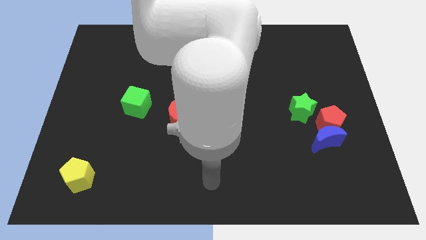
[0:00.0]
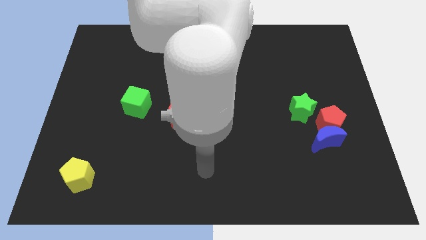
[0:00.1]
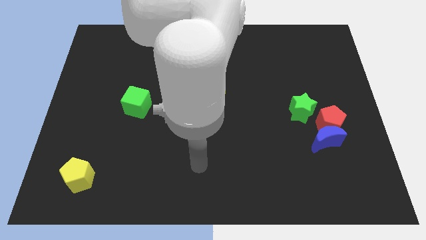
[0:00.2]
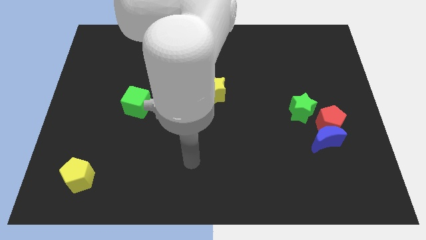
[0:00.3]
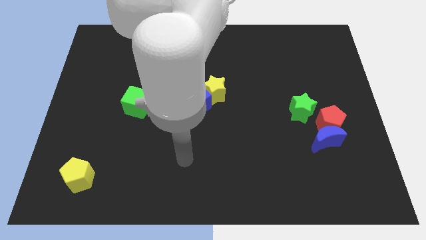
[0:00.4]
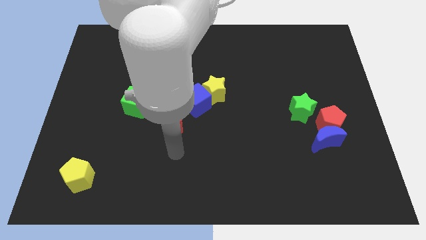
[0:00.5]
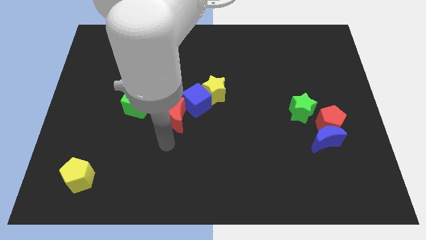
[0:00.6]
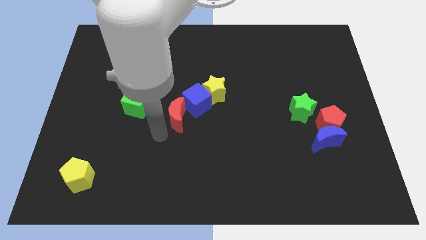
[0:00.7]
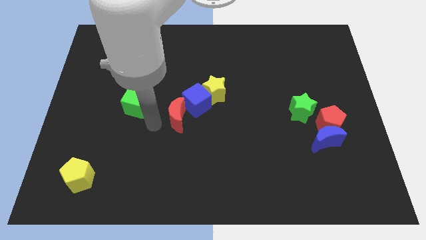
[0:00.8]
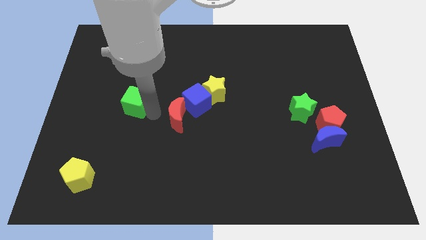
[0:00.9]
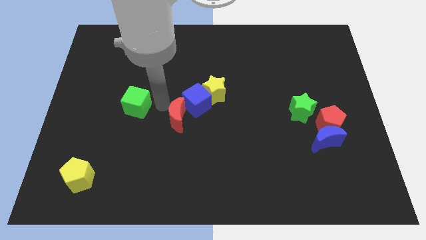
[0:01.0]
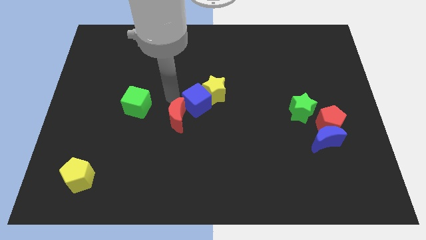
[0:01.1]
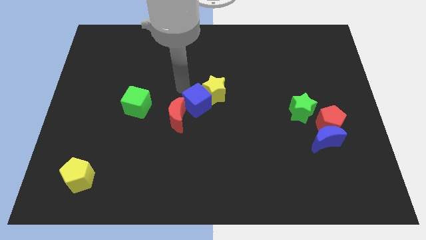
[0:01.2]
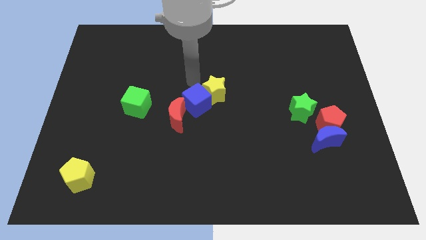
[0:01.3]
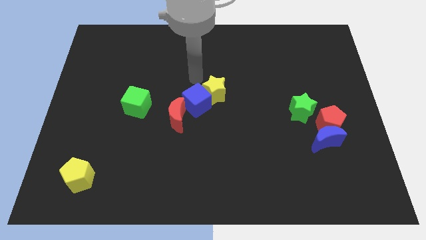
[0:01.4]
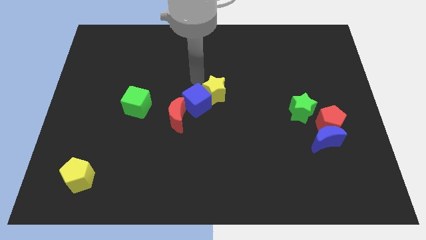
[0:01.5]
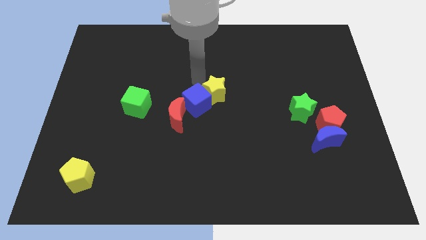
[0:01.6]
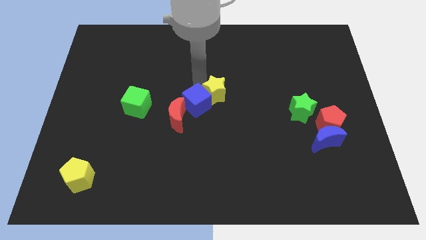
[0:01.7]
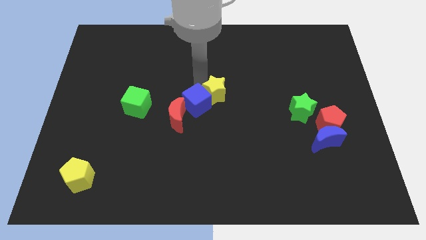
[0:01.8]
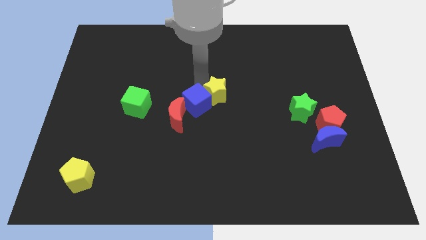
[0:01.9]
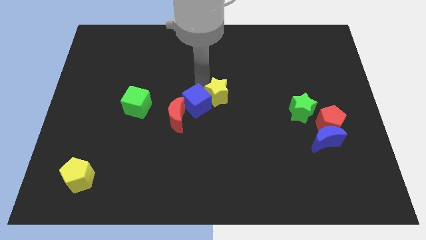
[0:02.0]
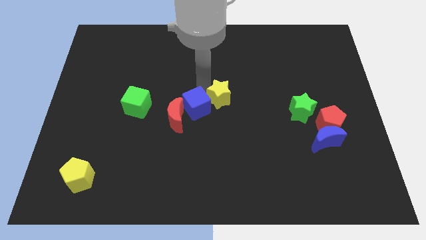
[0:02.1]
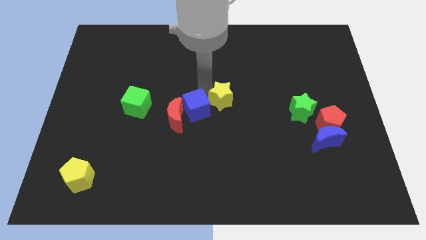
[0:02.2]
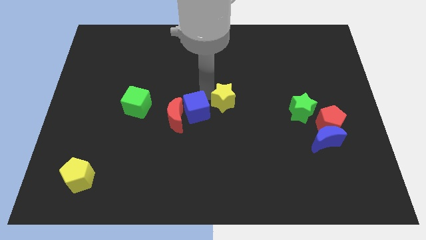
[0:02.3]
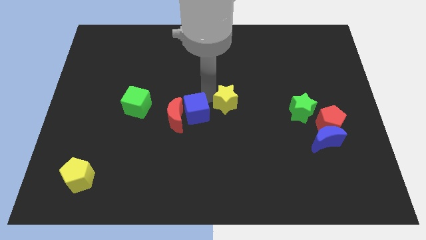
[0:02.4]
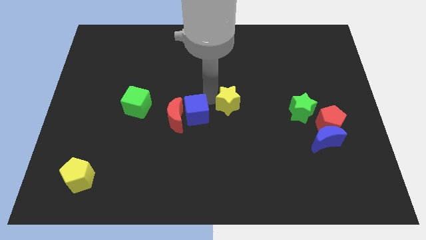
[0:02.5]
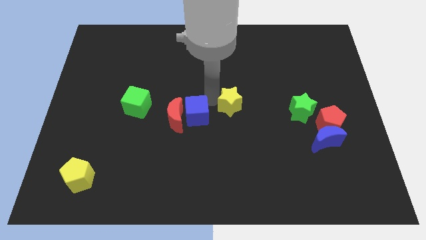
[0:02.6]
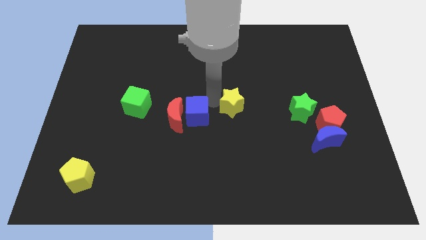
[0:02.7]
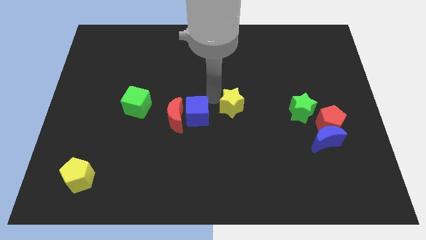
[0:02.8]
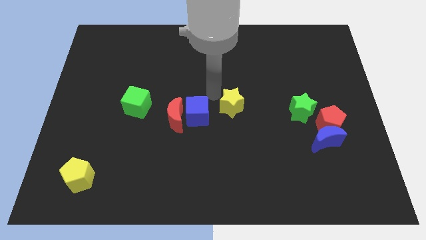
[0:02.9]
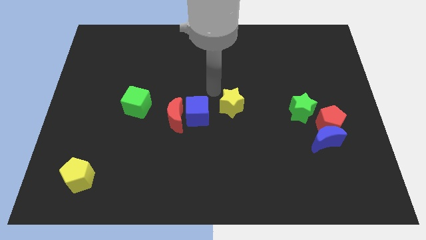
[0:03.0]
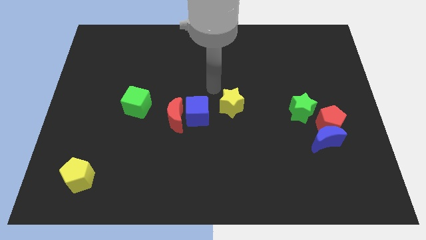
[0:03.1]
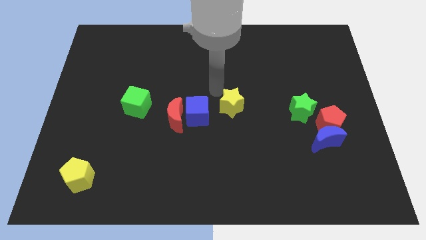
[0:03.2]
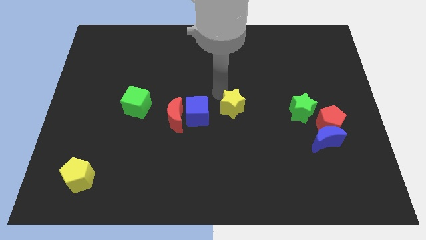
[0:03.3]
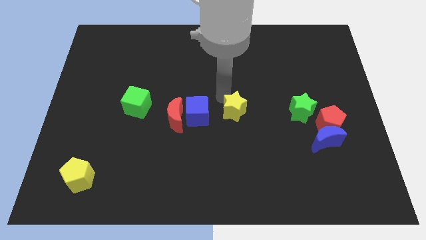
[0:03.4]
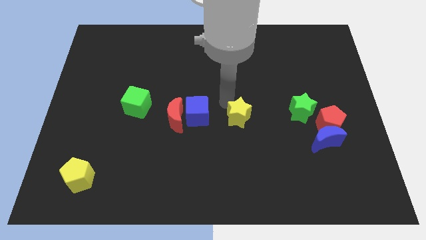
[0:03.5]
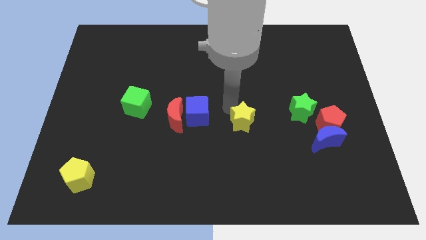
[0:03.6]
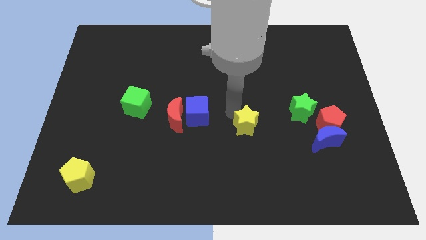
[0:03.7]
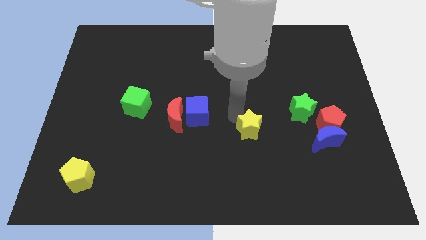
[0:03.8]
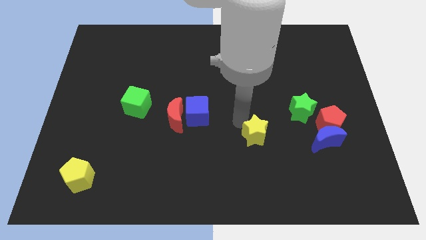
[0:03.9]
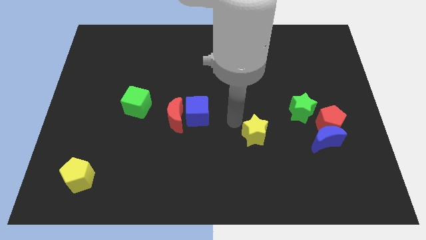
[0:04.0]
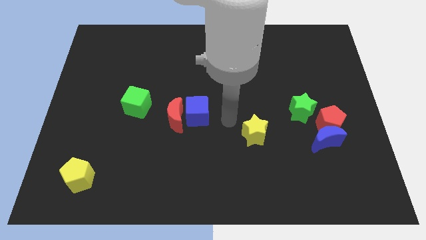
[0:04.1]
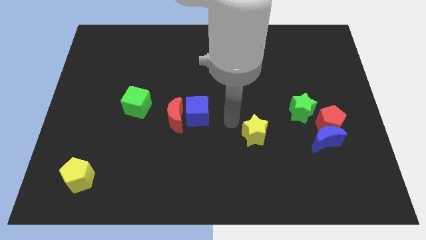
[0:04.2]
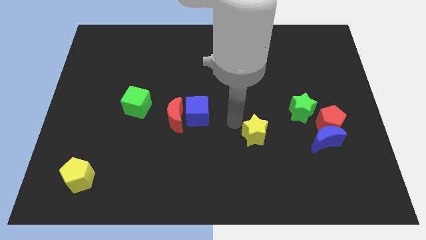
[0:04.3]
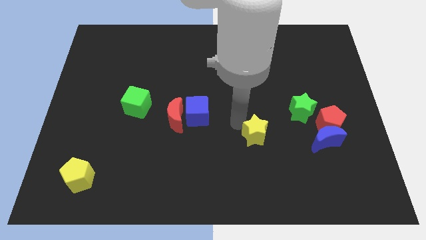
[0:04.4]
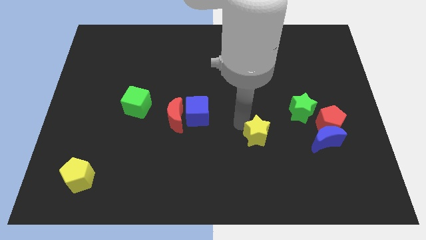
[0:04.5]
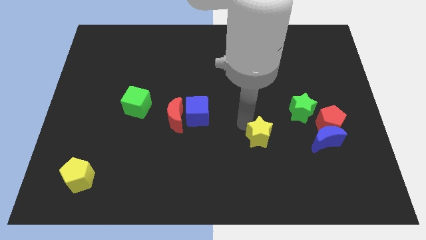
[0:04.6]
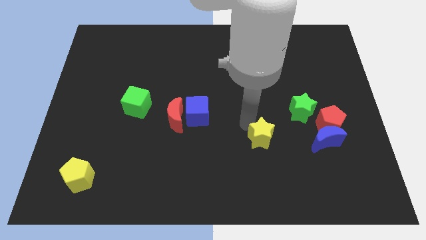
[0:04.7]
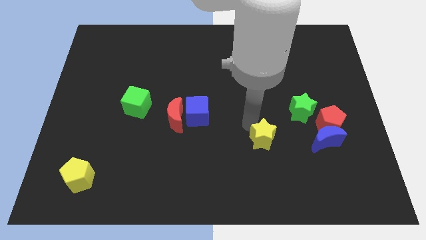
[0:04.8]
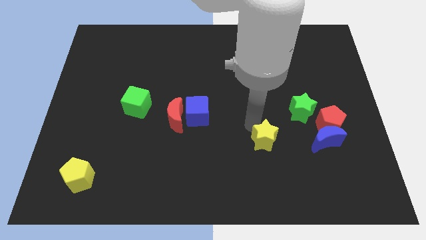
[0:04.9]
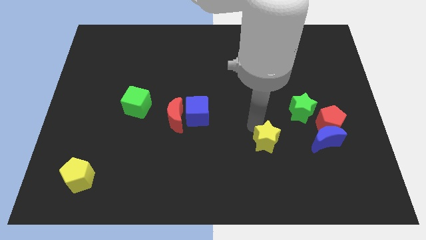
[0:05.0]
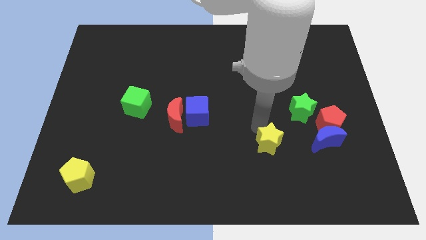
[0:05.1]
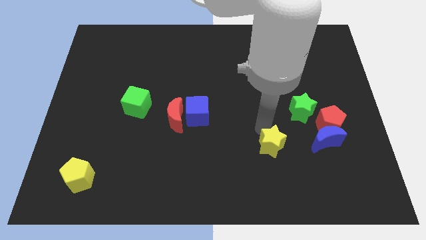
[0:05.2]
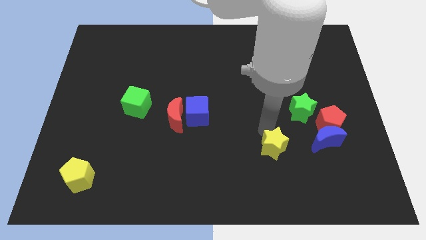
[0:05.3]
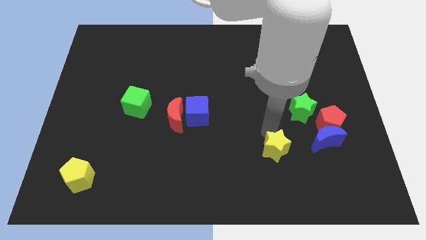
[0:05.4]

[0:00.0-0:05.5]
push the yellow star down and right diagonally

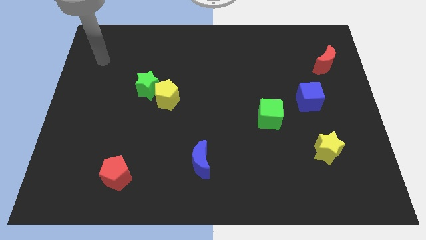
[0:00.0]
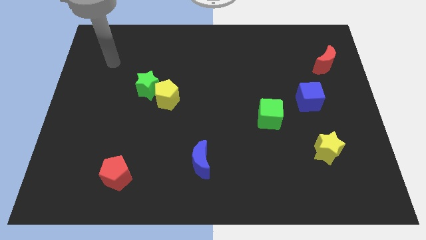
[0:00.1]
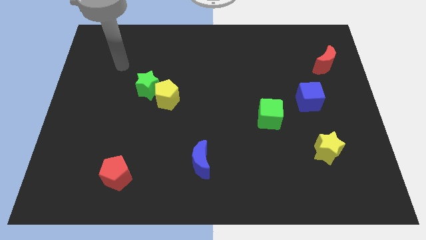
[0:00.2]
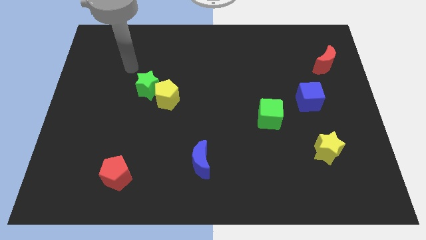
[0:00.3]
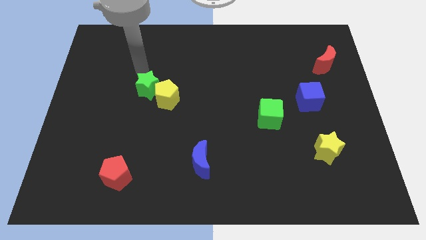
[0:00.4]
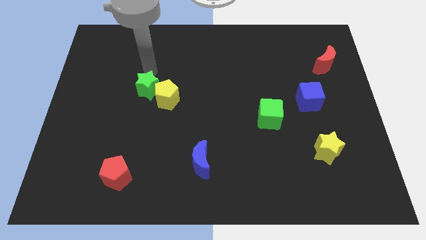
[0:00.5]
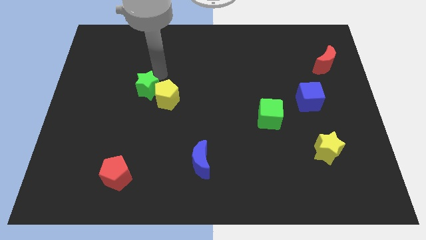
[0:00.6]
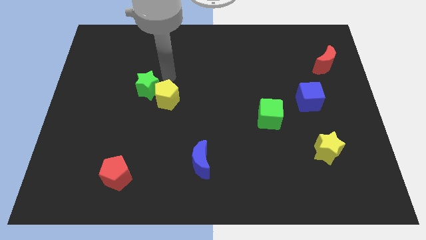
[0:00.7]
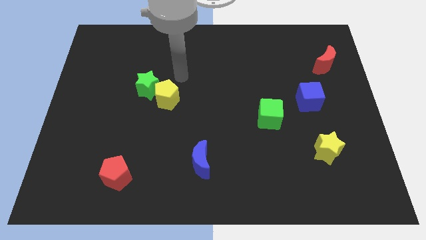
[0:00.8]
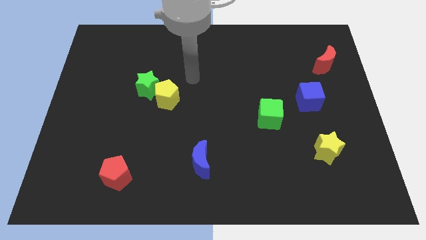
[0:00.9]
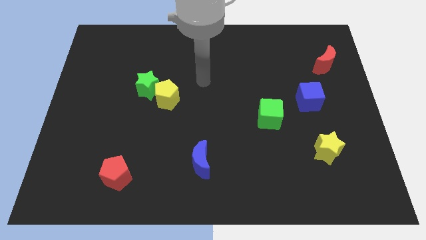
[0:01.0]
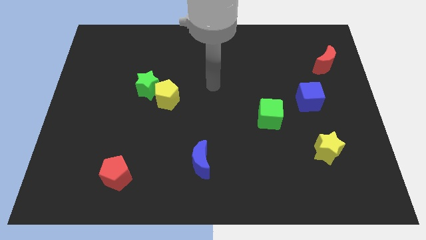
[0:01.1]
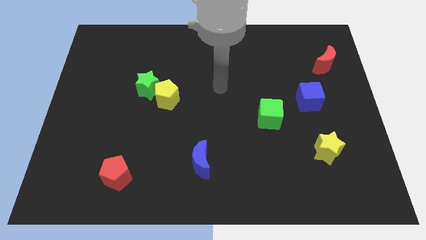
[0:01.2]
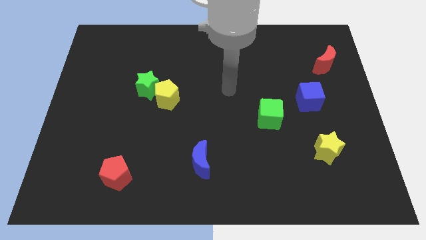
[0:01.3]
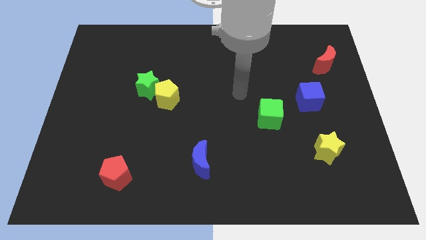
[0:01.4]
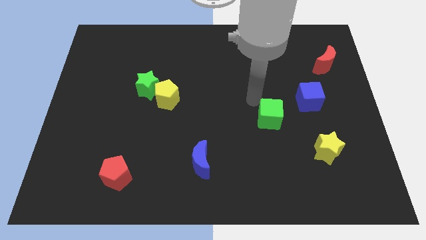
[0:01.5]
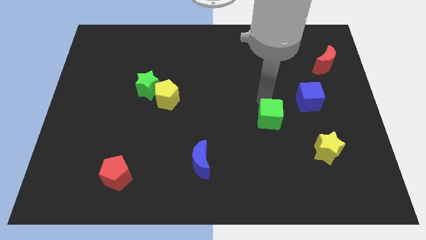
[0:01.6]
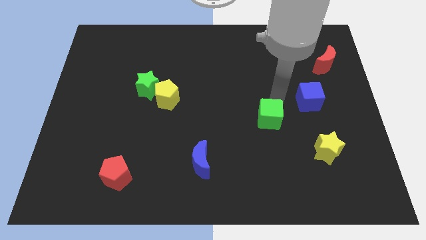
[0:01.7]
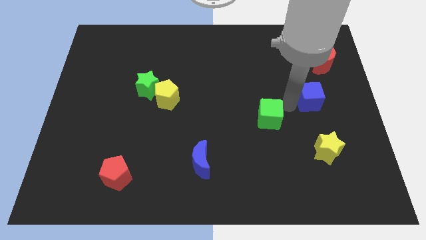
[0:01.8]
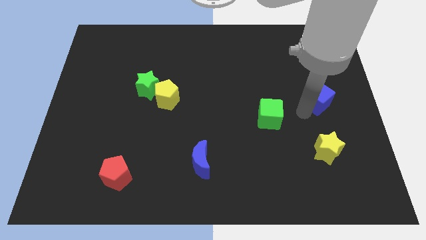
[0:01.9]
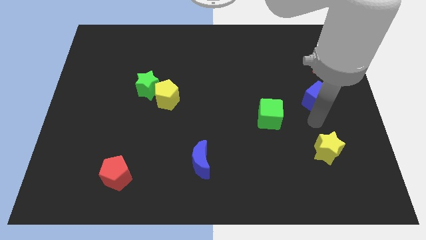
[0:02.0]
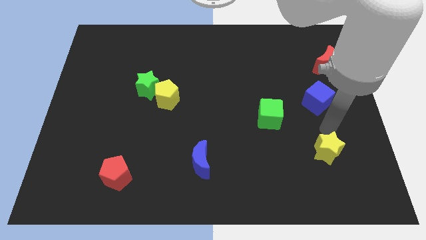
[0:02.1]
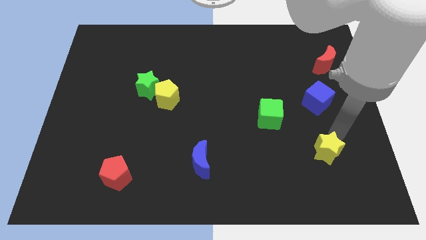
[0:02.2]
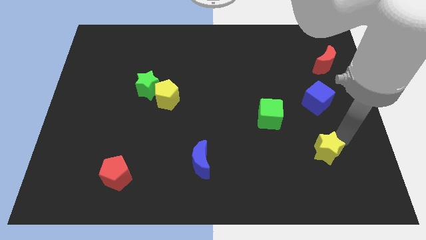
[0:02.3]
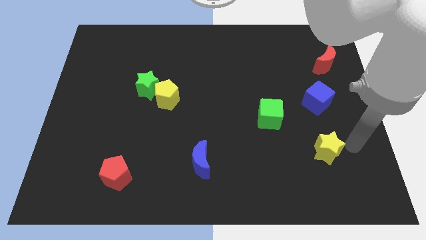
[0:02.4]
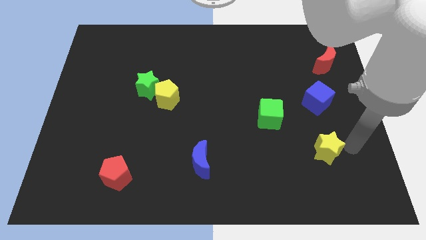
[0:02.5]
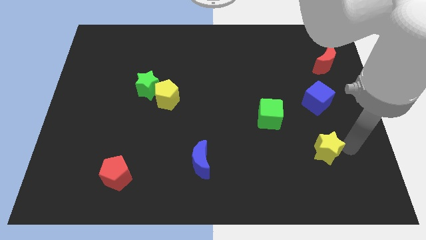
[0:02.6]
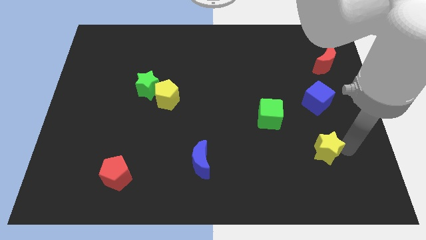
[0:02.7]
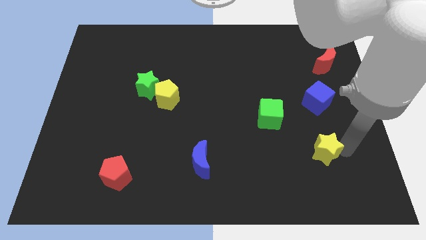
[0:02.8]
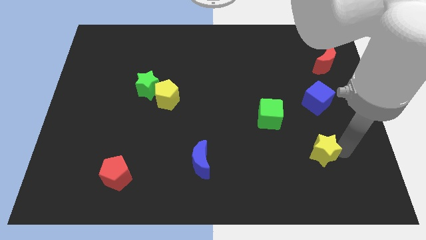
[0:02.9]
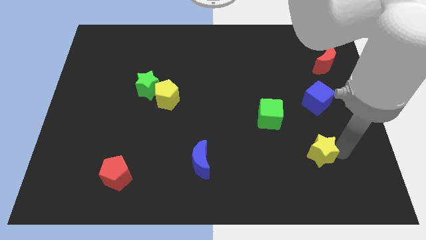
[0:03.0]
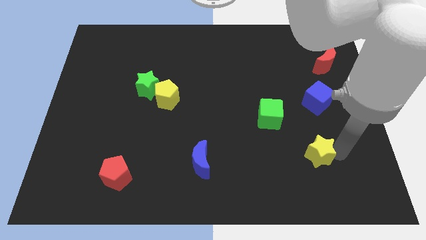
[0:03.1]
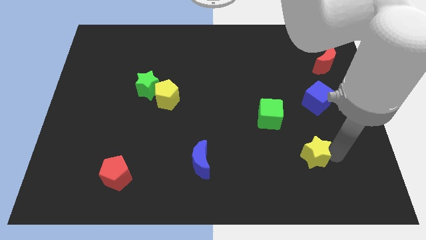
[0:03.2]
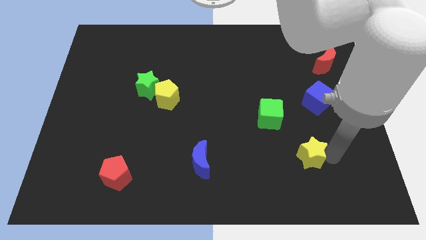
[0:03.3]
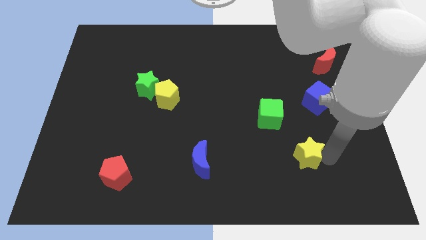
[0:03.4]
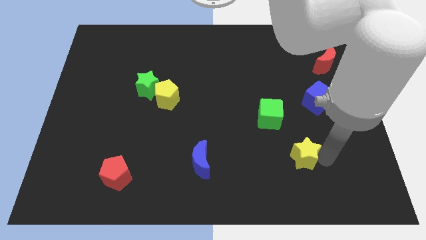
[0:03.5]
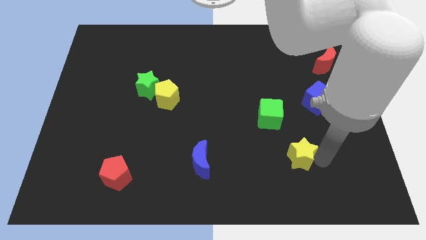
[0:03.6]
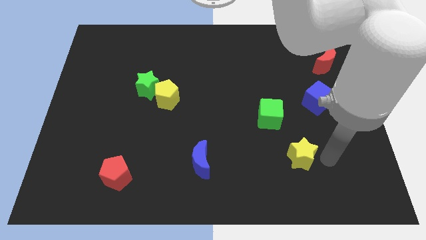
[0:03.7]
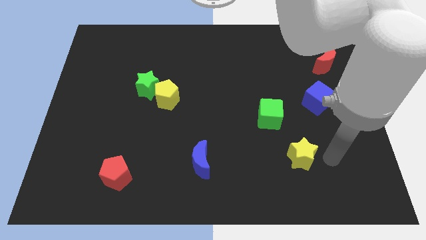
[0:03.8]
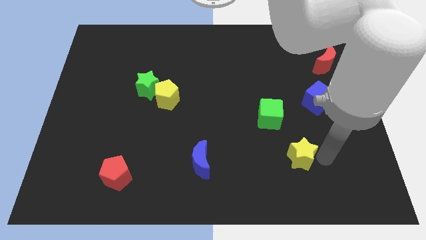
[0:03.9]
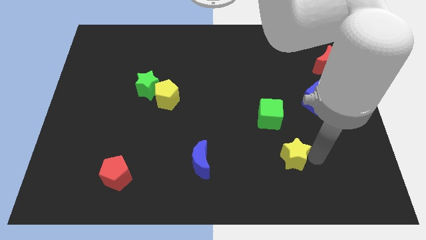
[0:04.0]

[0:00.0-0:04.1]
move the yellow star a little bit to the left
